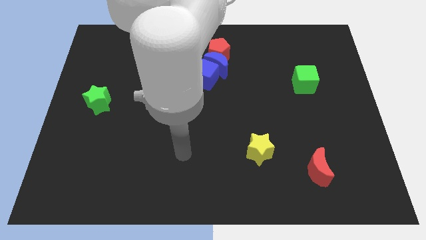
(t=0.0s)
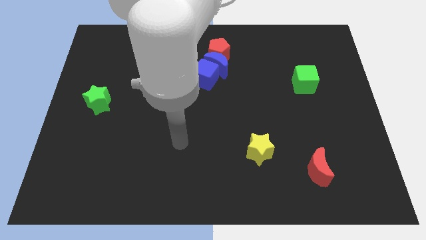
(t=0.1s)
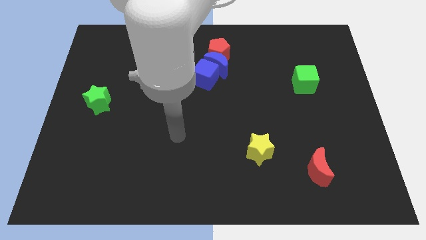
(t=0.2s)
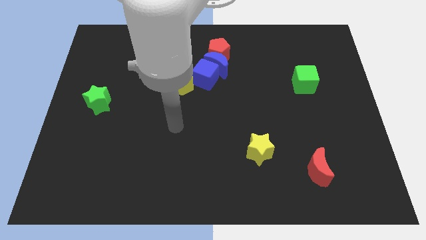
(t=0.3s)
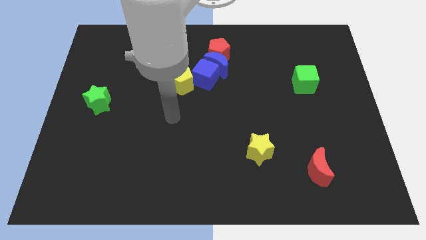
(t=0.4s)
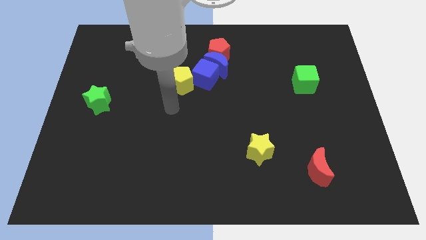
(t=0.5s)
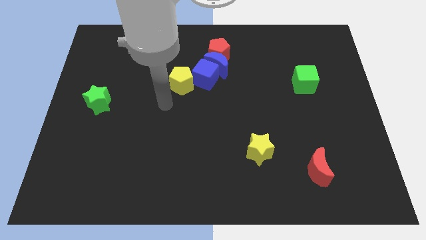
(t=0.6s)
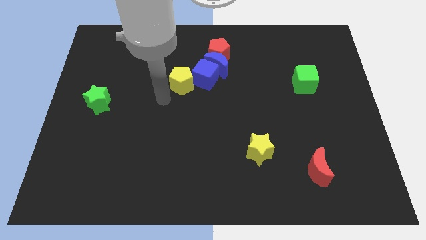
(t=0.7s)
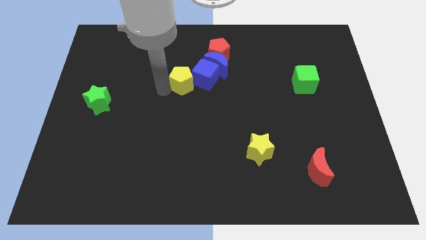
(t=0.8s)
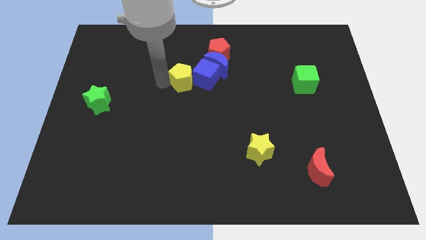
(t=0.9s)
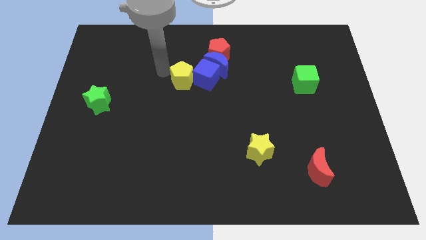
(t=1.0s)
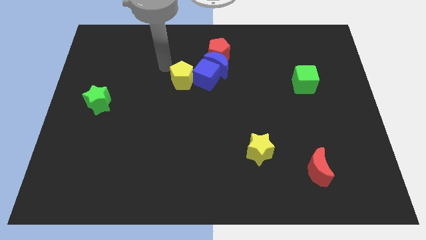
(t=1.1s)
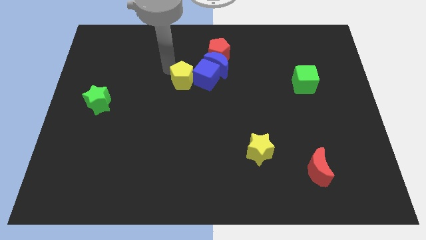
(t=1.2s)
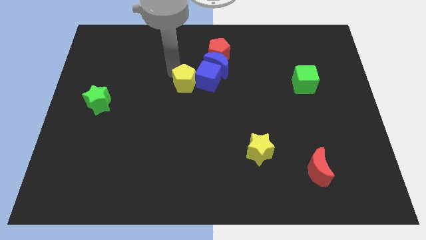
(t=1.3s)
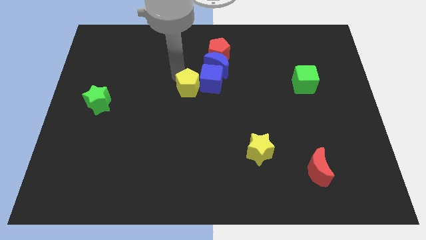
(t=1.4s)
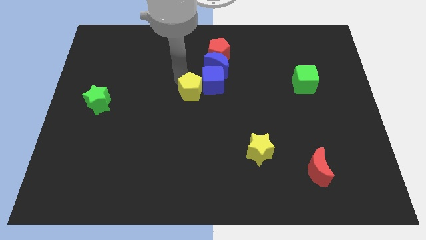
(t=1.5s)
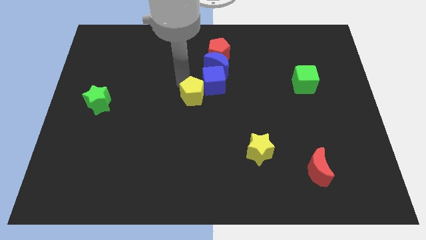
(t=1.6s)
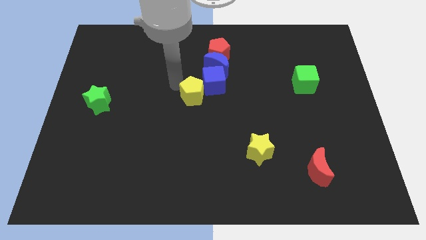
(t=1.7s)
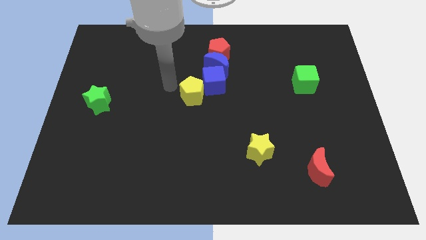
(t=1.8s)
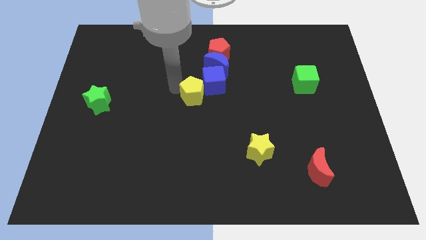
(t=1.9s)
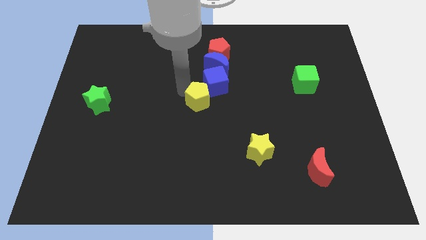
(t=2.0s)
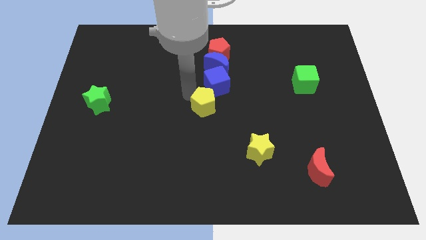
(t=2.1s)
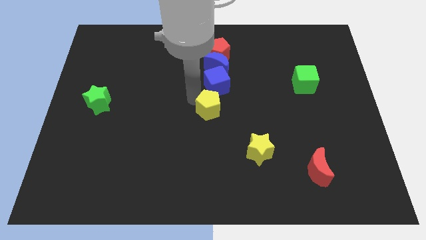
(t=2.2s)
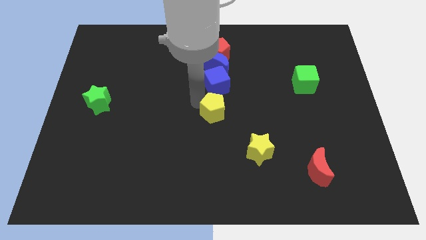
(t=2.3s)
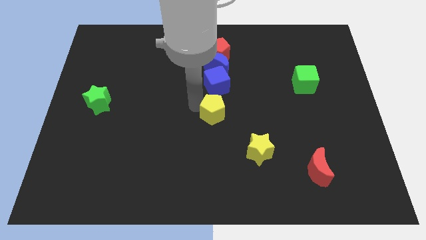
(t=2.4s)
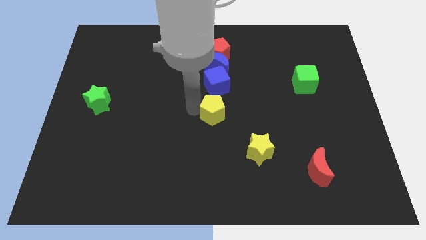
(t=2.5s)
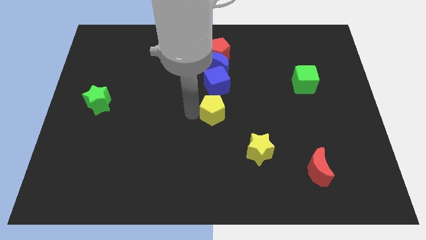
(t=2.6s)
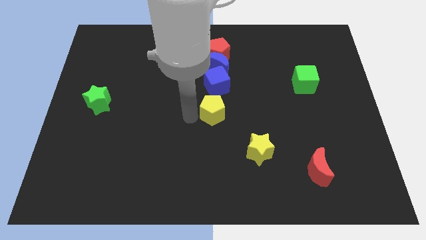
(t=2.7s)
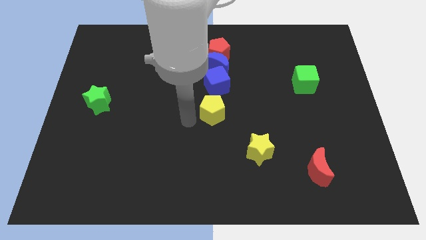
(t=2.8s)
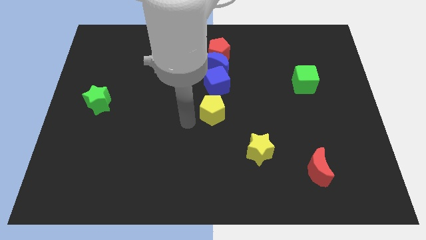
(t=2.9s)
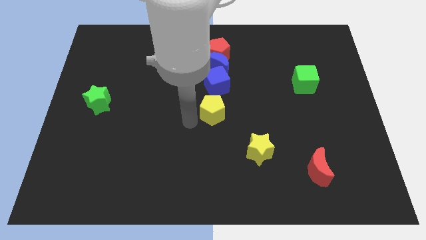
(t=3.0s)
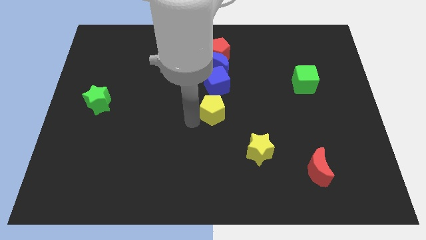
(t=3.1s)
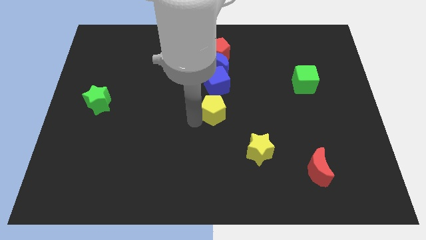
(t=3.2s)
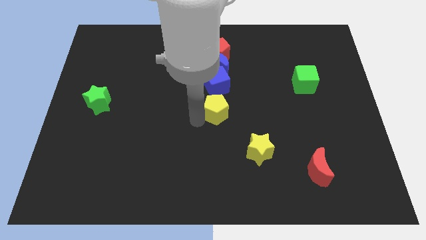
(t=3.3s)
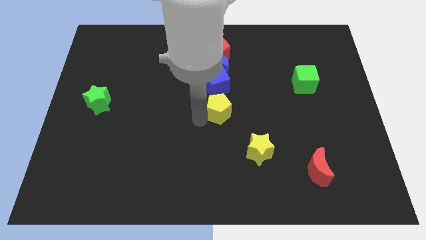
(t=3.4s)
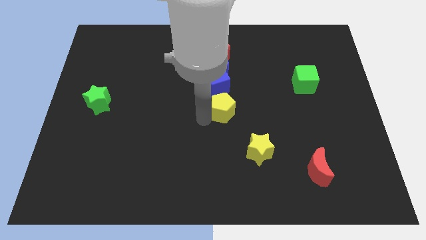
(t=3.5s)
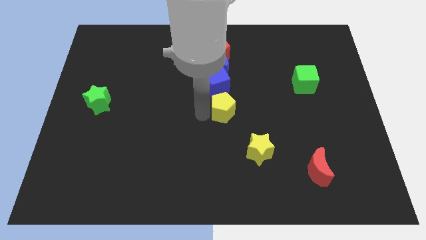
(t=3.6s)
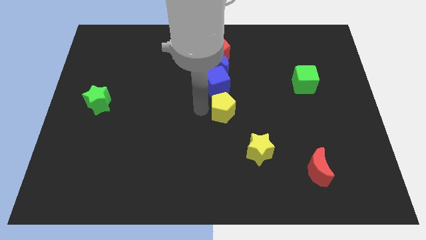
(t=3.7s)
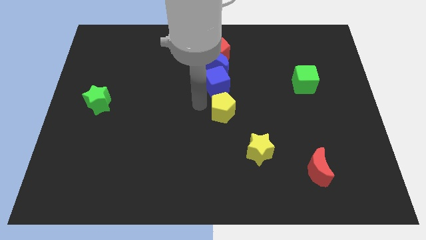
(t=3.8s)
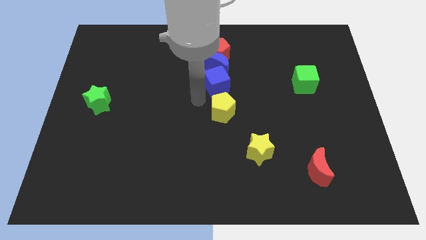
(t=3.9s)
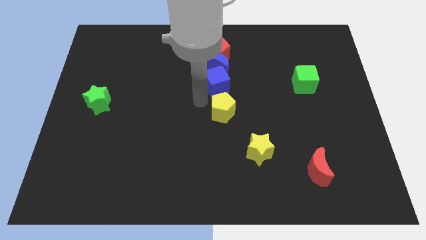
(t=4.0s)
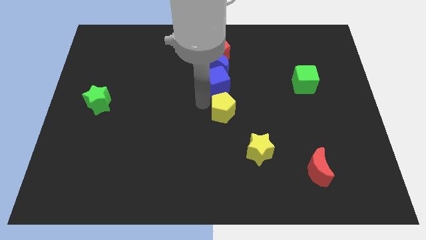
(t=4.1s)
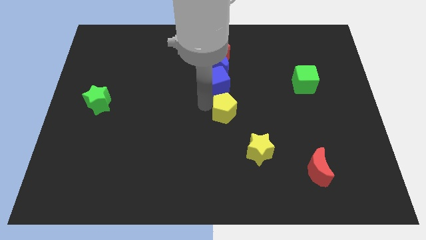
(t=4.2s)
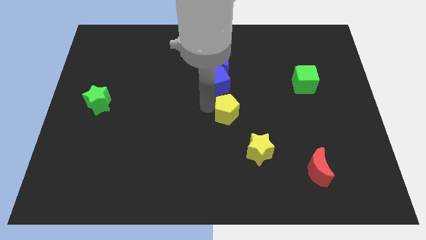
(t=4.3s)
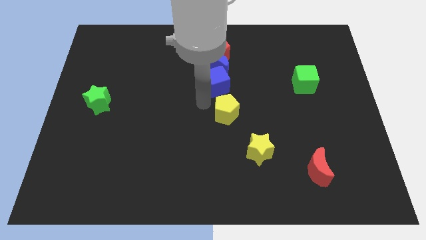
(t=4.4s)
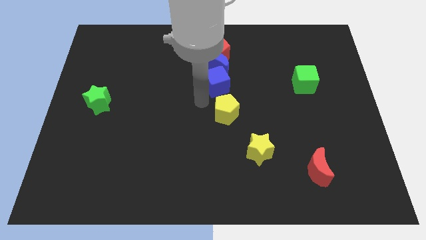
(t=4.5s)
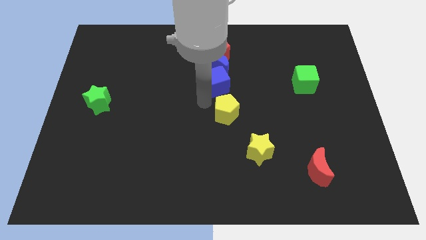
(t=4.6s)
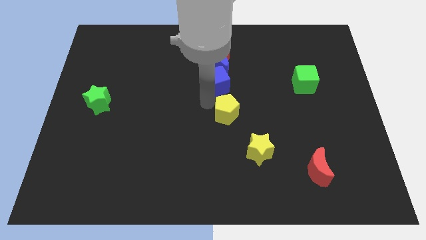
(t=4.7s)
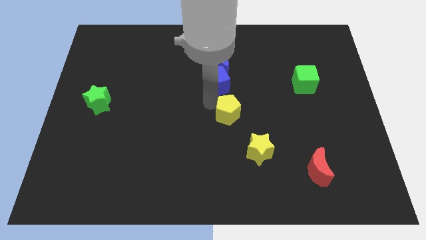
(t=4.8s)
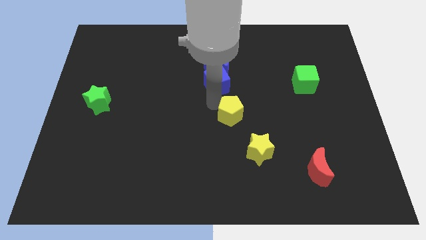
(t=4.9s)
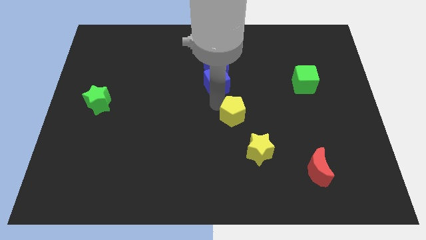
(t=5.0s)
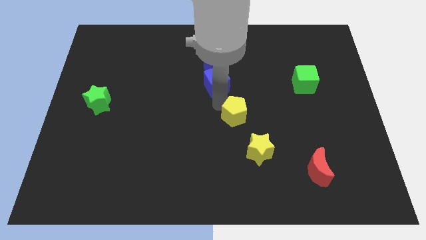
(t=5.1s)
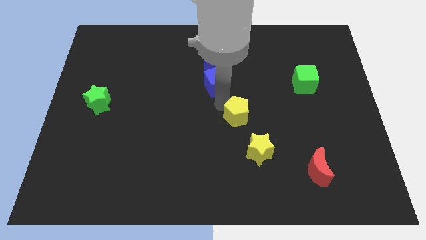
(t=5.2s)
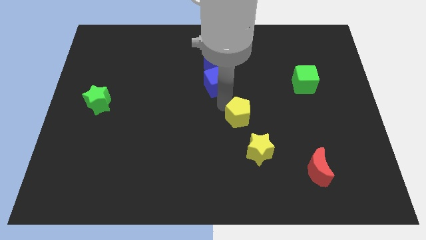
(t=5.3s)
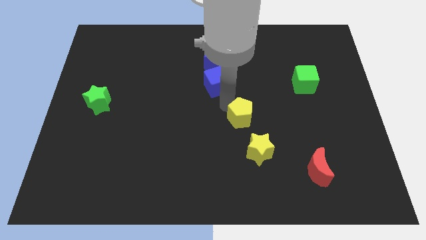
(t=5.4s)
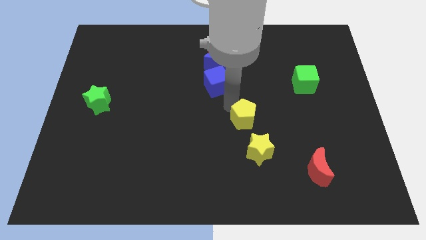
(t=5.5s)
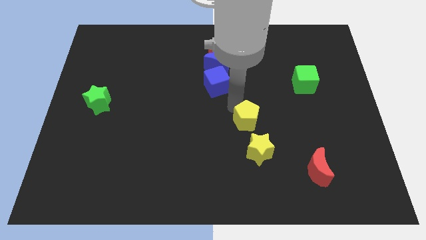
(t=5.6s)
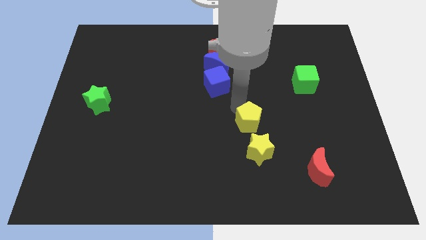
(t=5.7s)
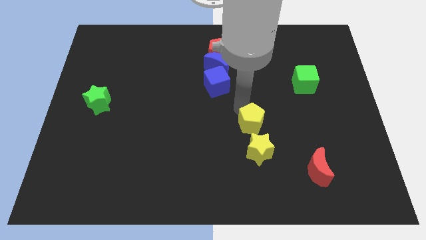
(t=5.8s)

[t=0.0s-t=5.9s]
push the yellow pentagon downwards and then right

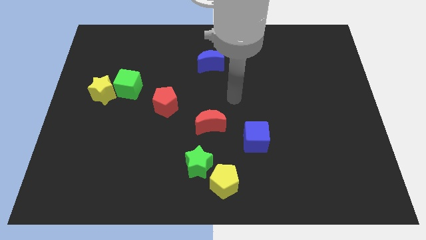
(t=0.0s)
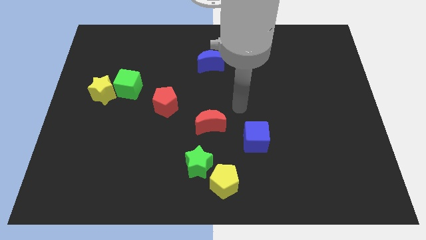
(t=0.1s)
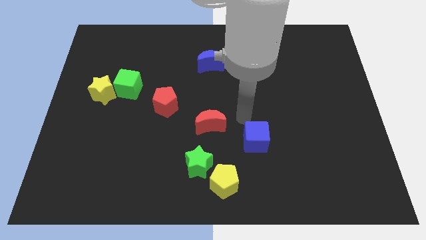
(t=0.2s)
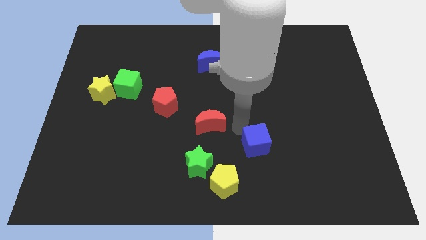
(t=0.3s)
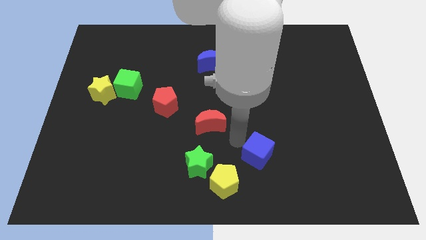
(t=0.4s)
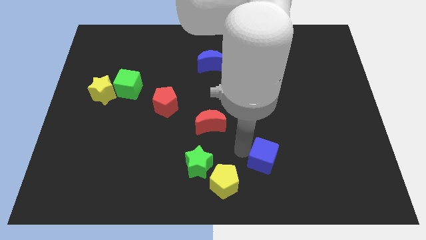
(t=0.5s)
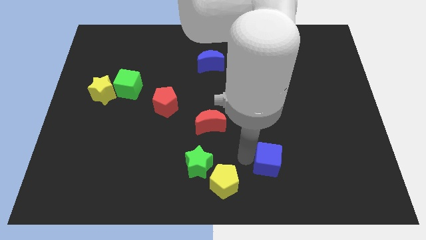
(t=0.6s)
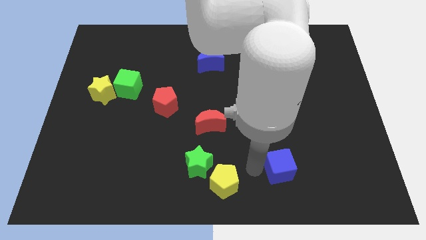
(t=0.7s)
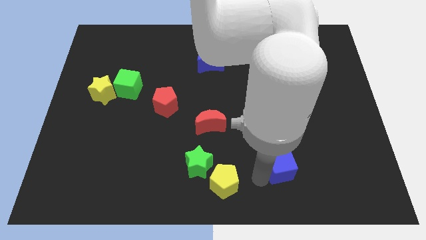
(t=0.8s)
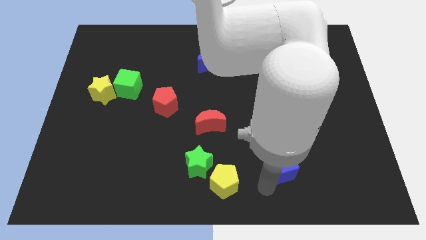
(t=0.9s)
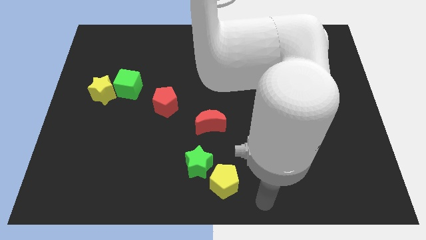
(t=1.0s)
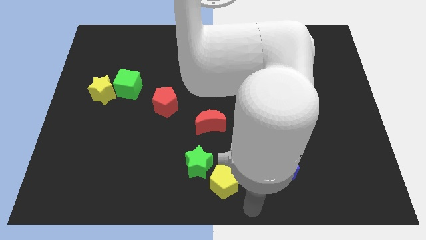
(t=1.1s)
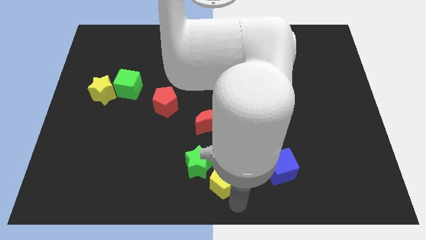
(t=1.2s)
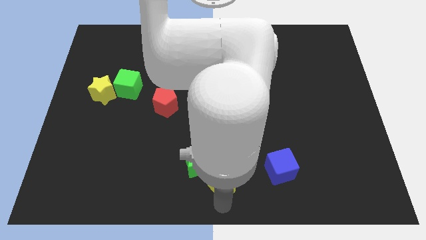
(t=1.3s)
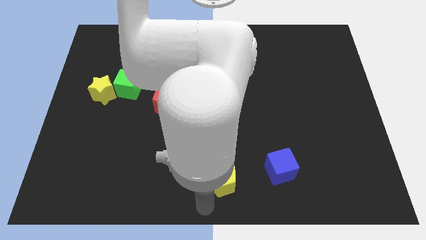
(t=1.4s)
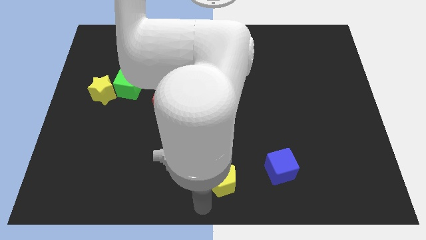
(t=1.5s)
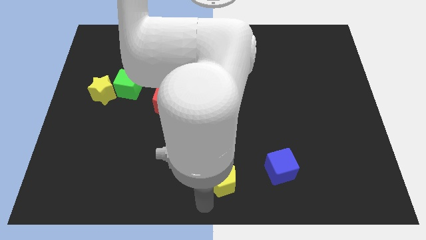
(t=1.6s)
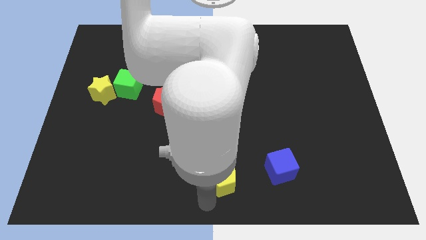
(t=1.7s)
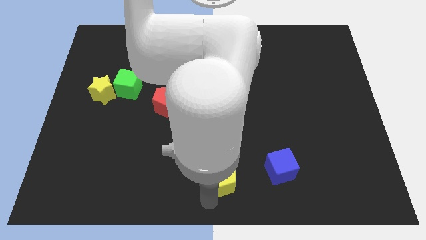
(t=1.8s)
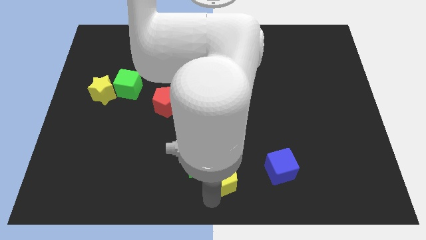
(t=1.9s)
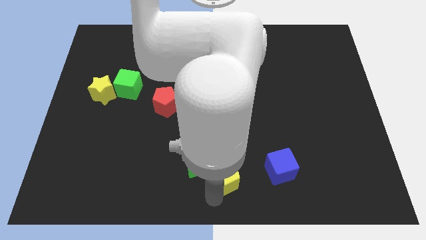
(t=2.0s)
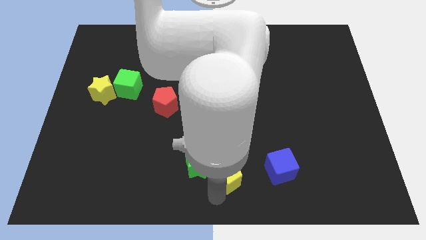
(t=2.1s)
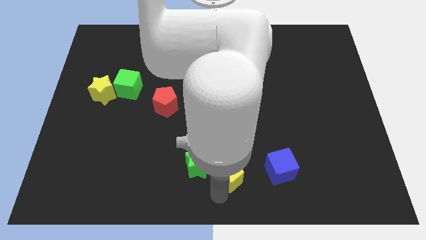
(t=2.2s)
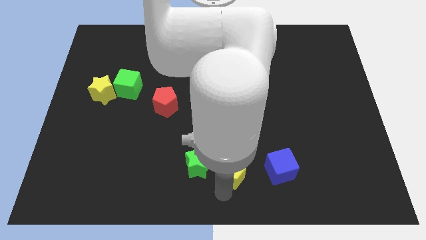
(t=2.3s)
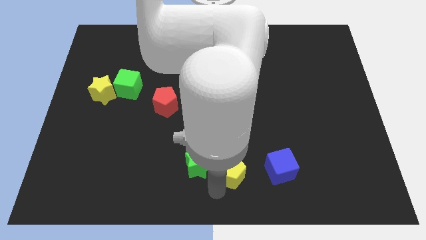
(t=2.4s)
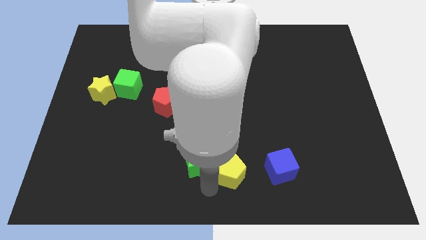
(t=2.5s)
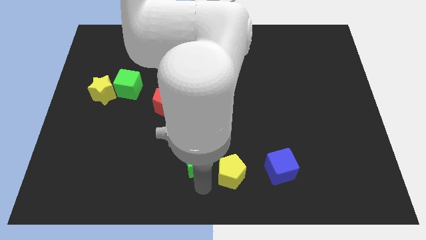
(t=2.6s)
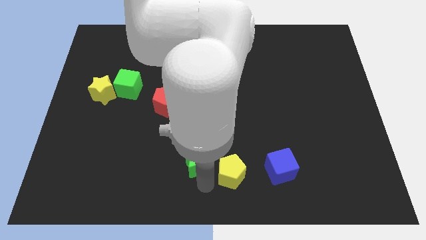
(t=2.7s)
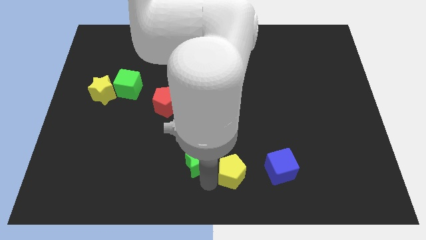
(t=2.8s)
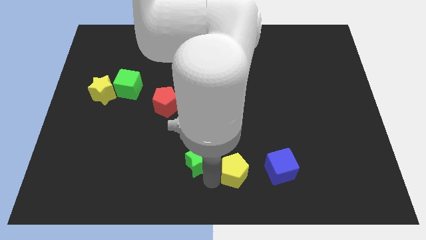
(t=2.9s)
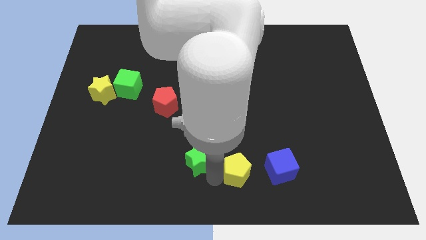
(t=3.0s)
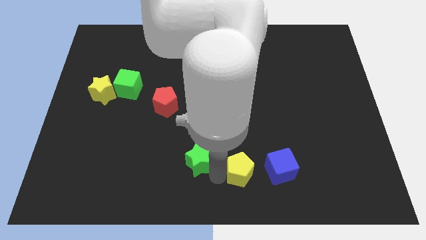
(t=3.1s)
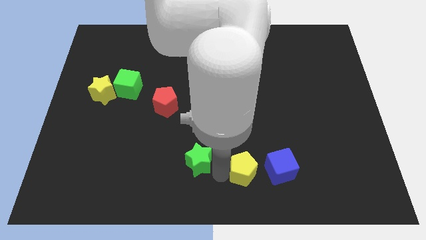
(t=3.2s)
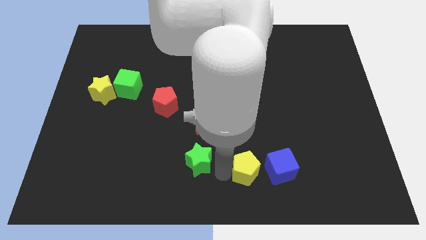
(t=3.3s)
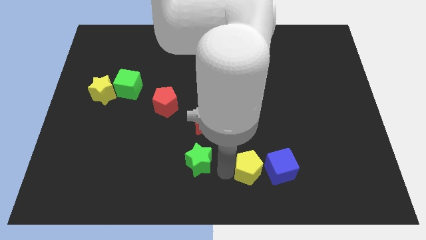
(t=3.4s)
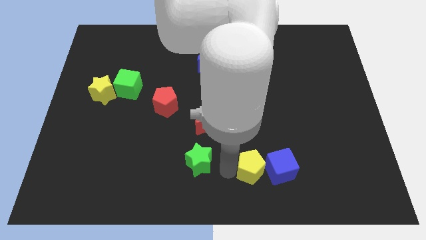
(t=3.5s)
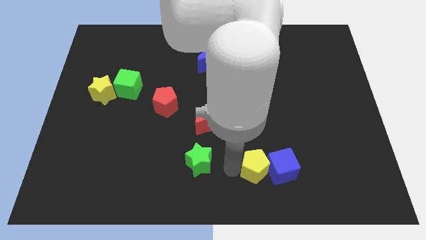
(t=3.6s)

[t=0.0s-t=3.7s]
slide the yellow pentagon upwards and to the right diagonally a little
